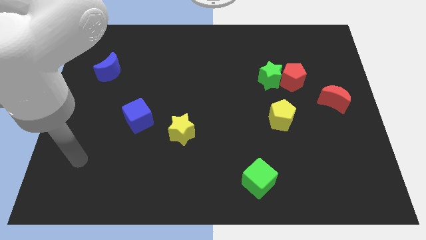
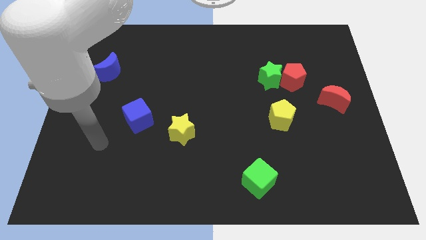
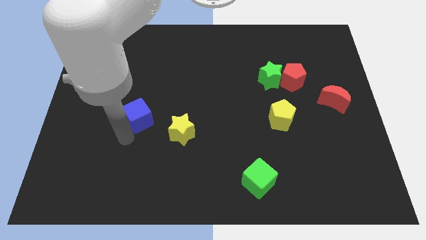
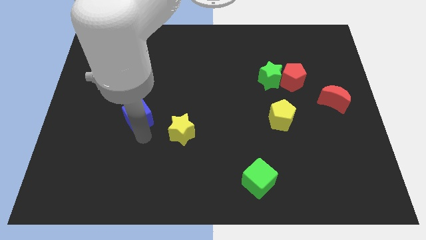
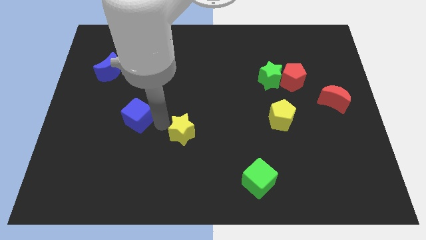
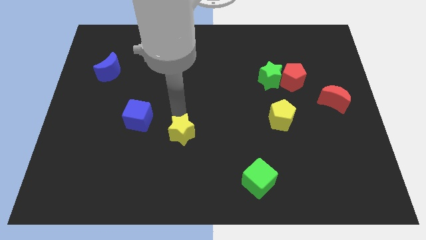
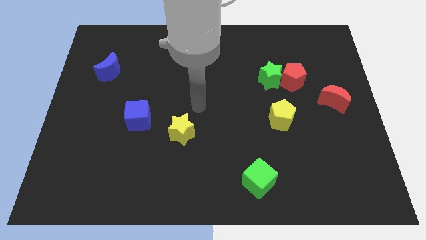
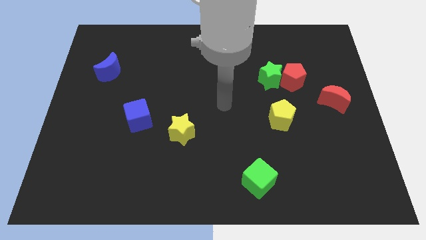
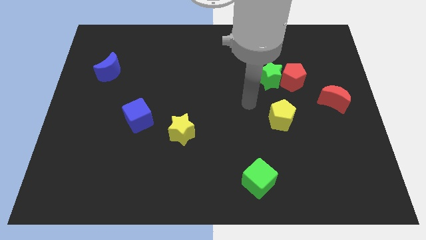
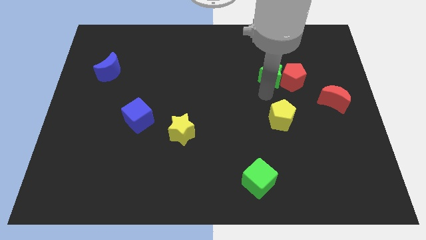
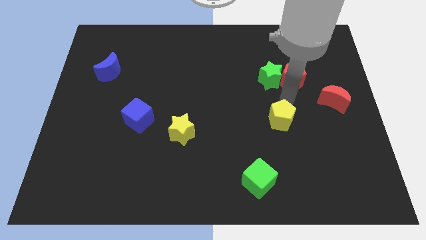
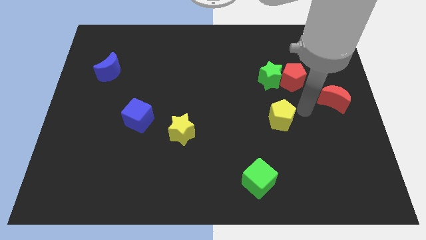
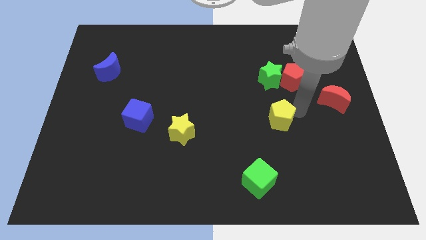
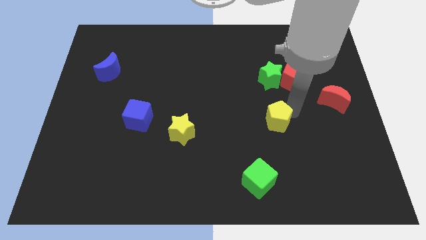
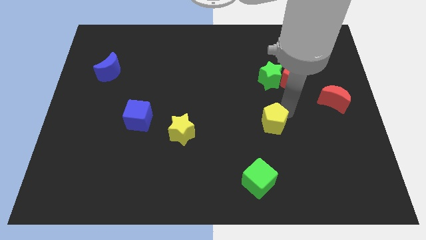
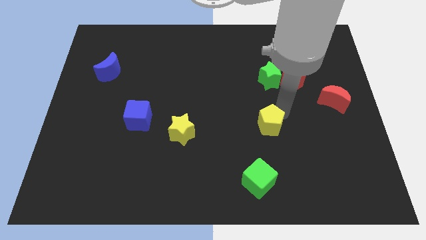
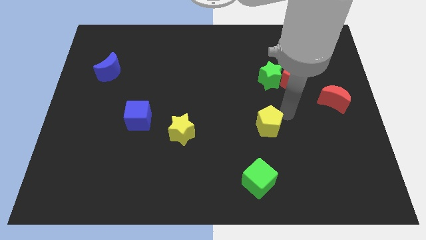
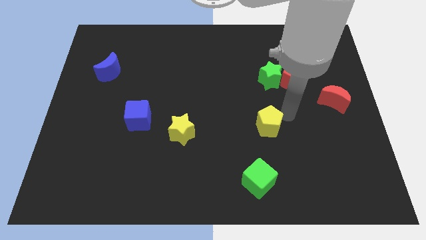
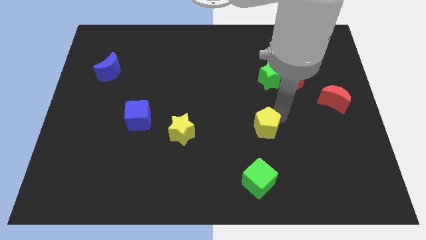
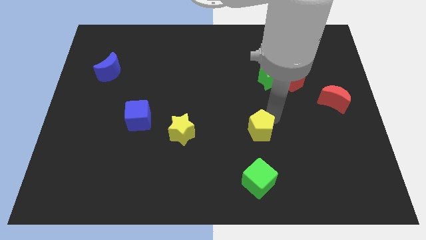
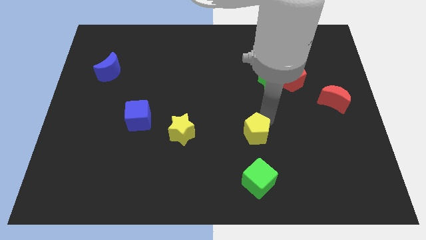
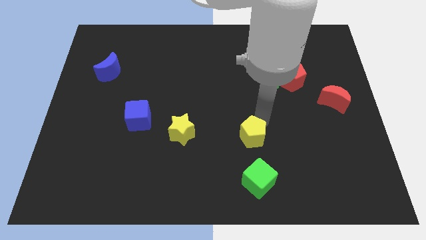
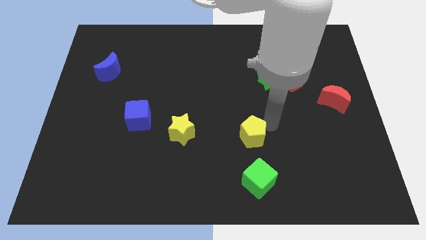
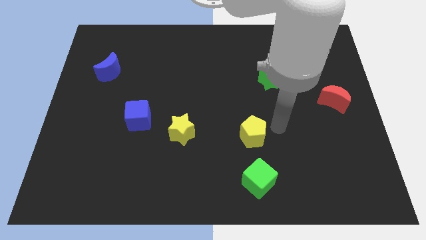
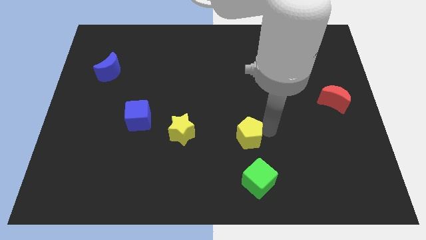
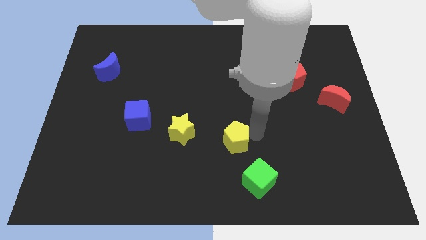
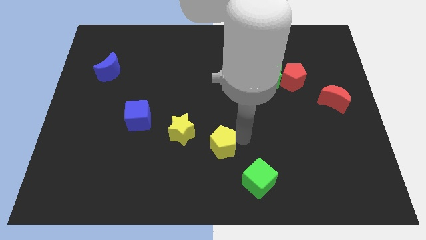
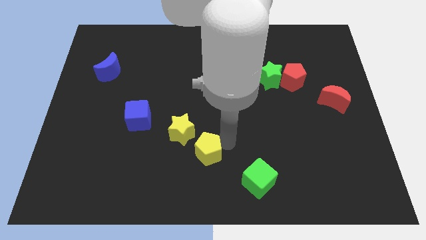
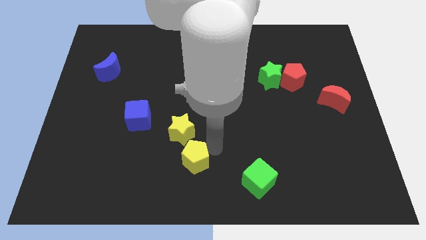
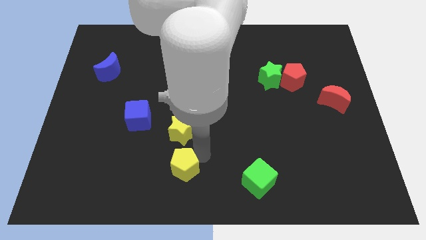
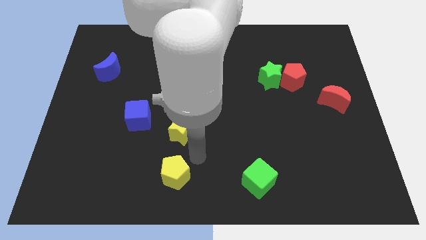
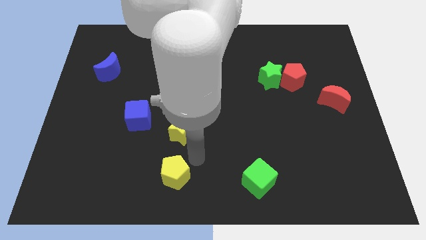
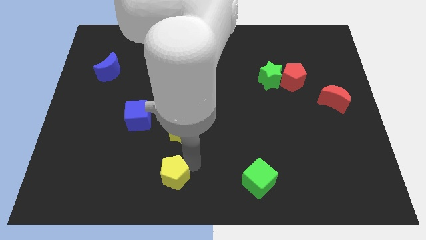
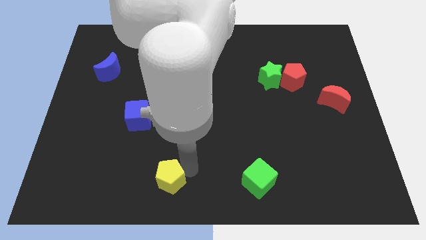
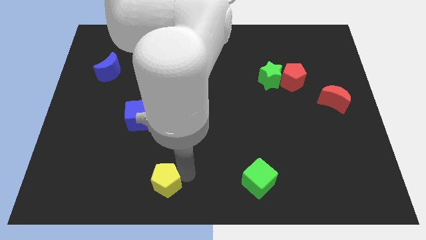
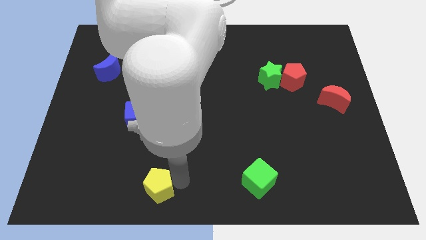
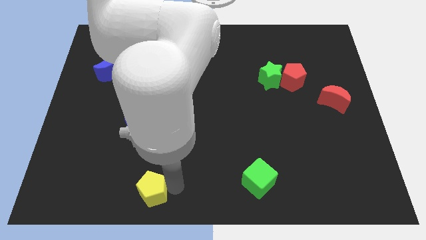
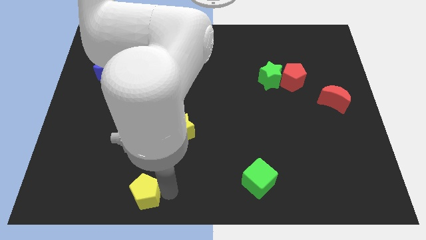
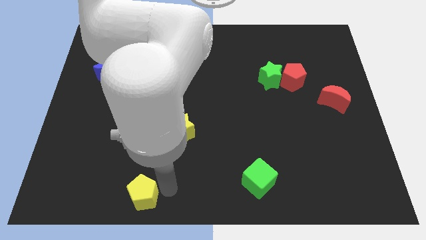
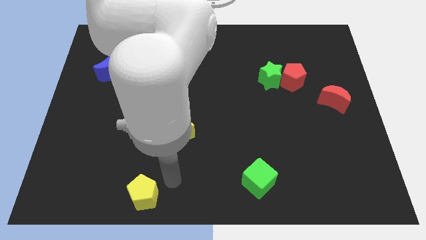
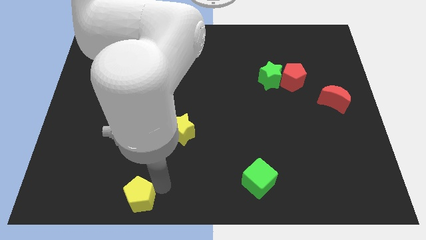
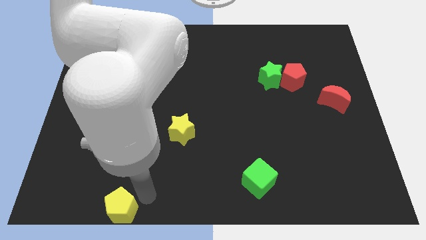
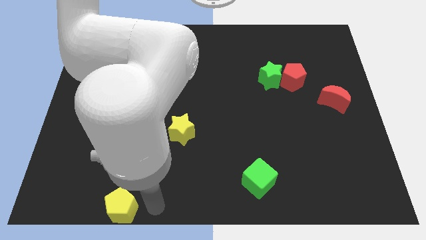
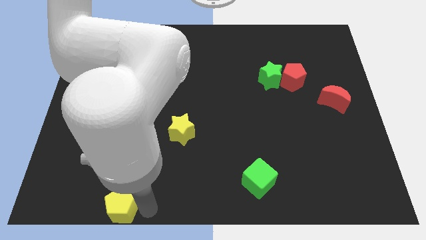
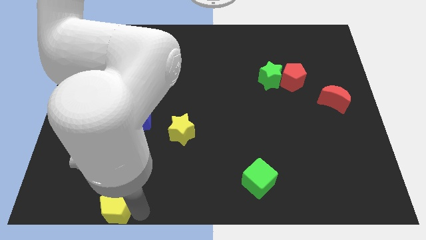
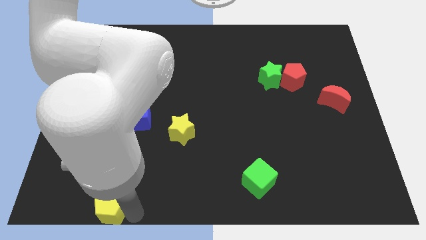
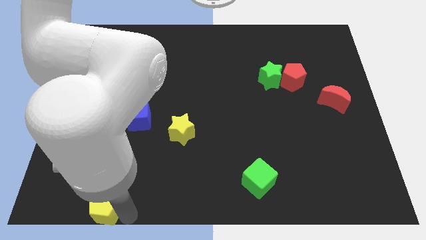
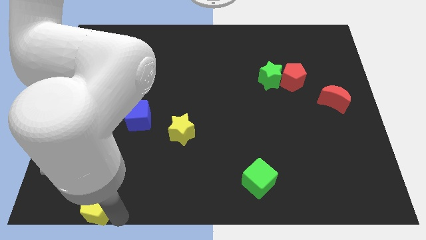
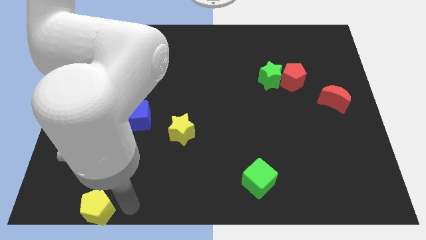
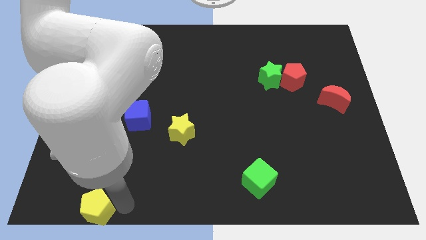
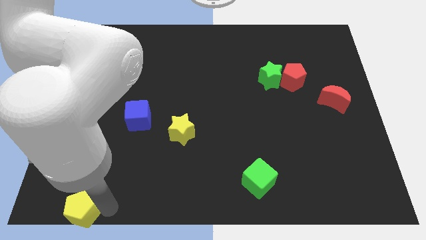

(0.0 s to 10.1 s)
put the yellow pentagon to the bottom left of the board

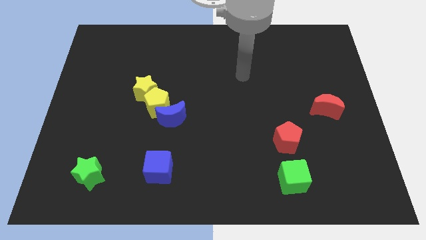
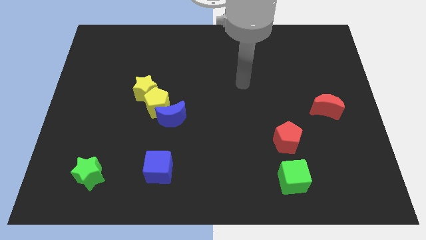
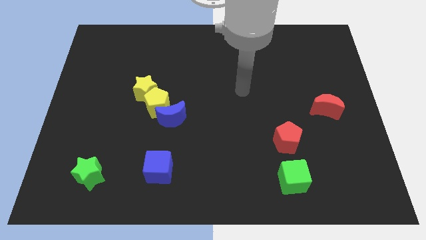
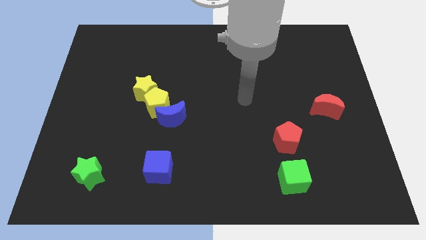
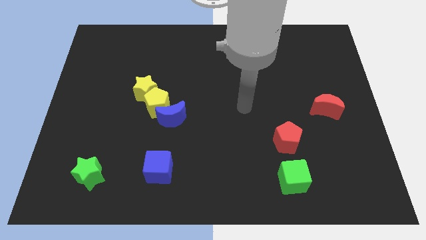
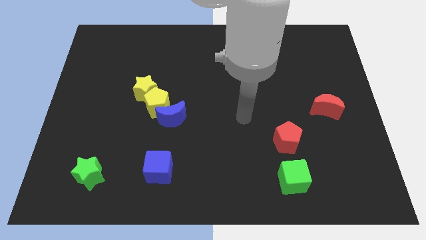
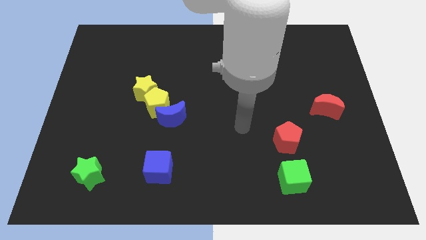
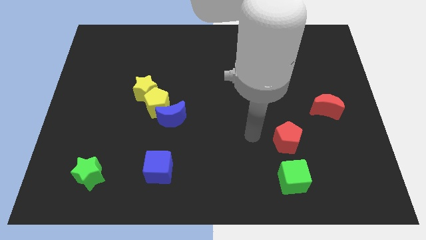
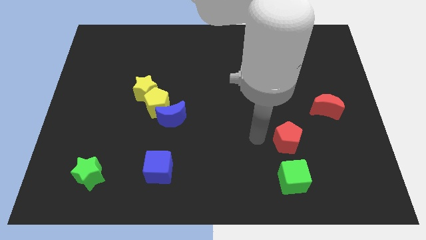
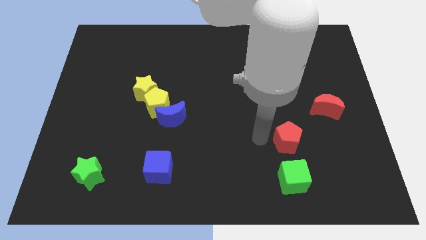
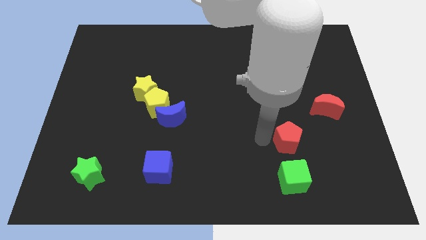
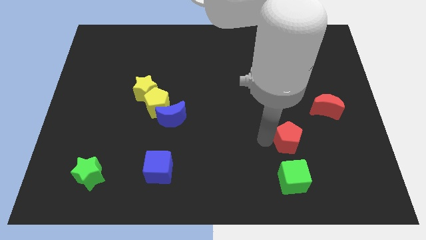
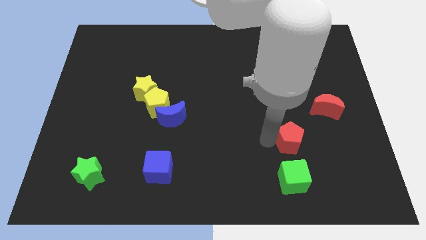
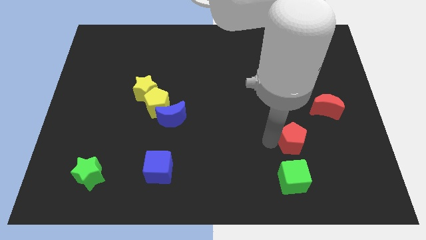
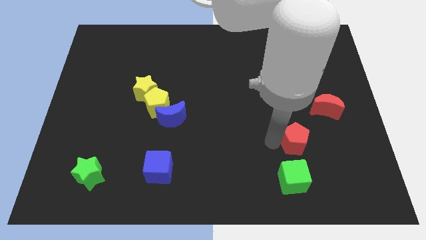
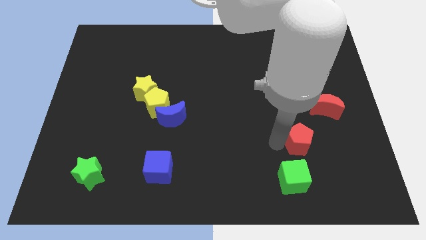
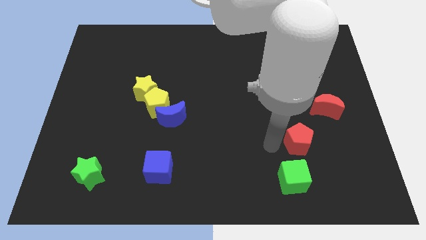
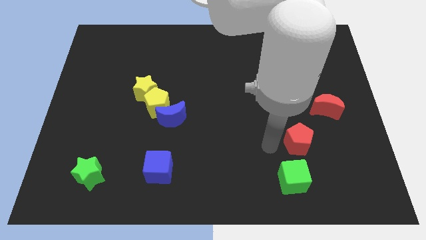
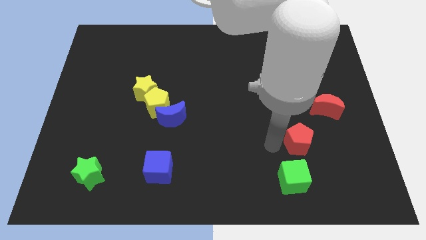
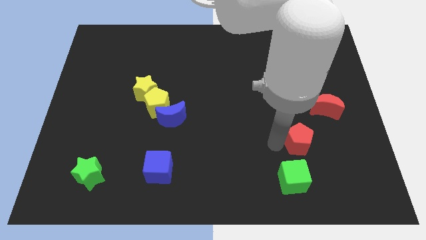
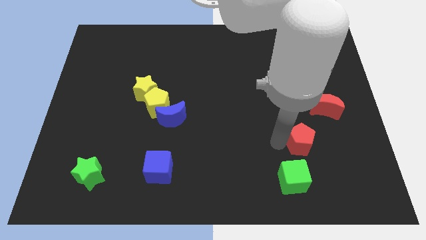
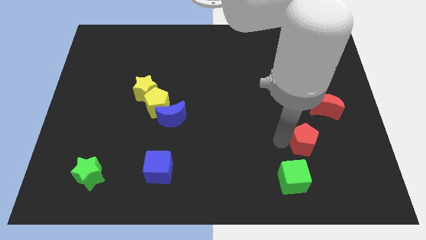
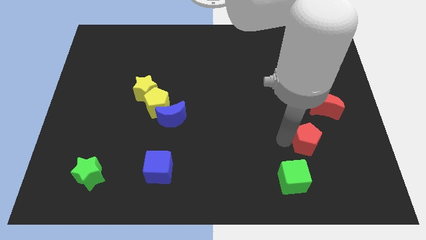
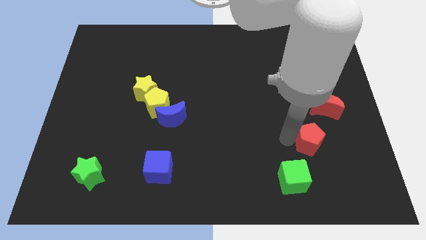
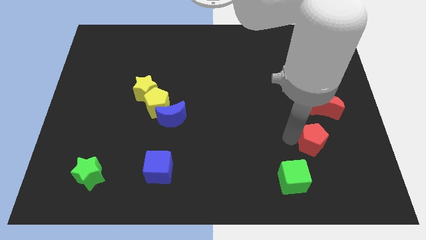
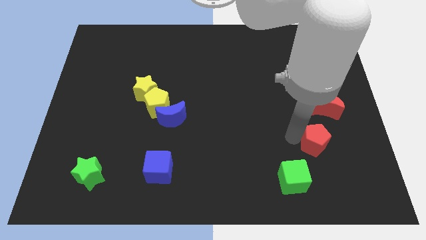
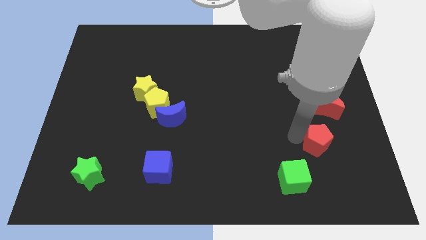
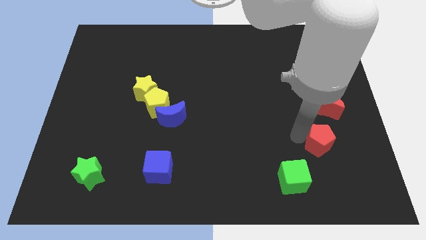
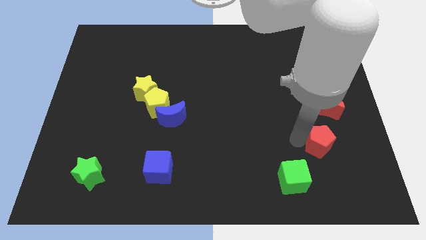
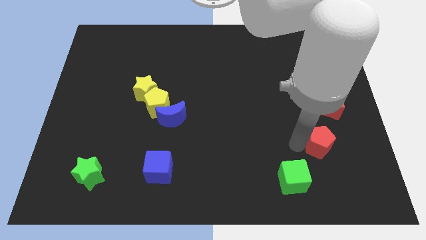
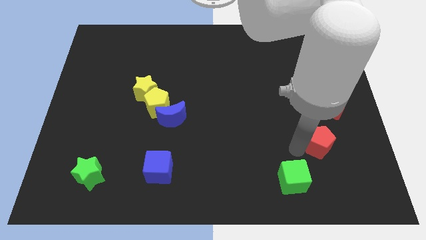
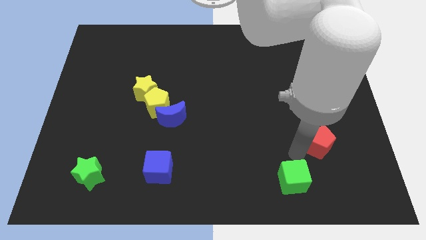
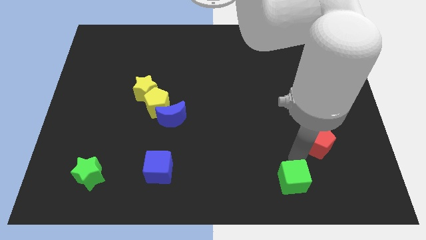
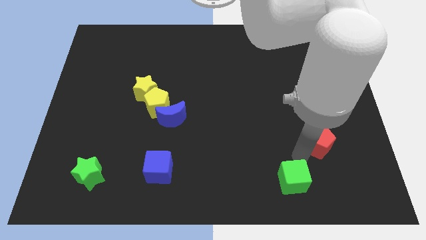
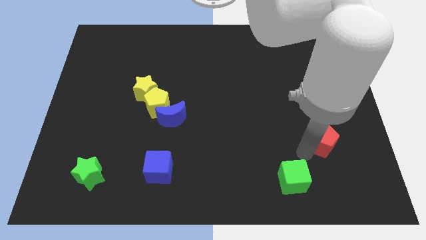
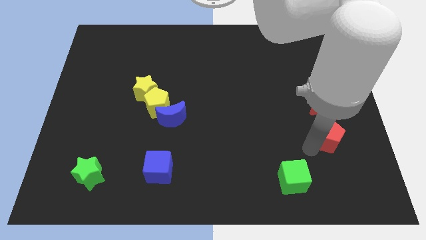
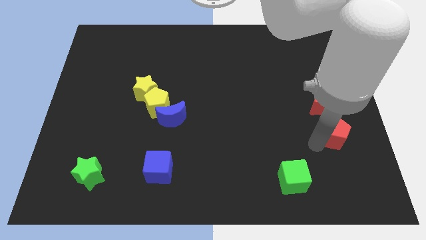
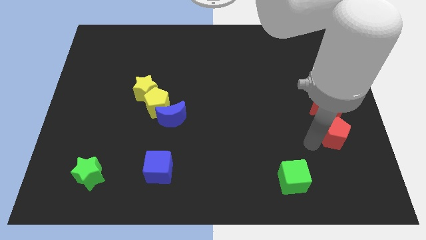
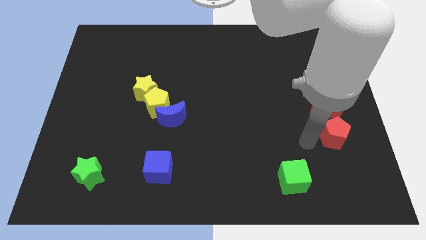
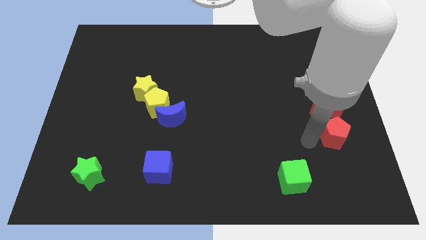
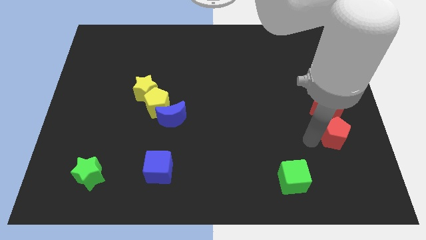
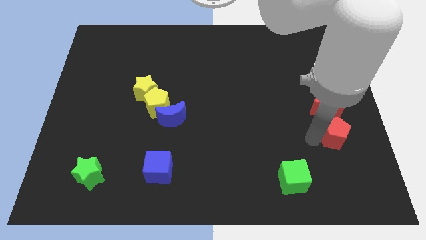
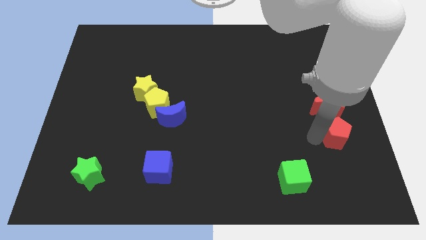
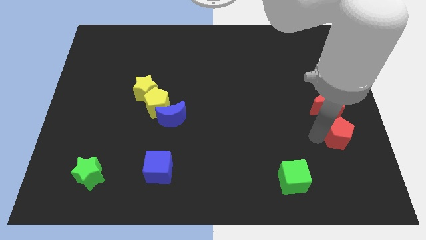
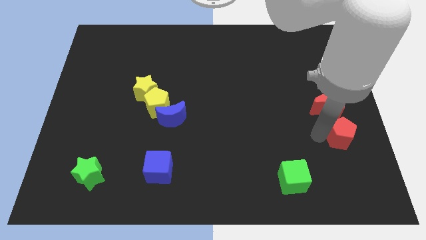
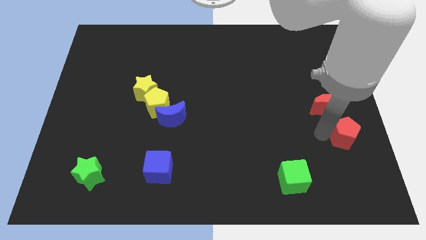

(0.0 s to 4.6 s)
push the red pentagon to the right side of the board
